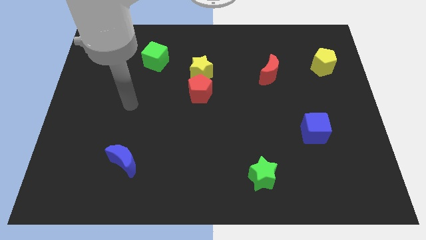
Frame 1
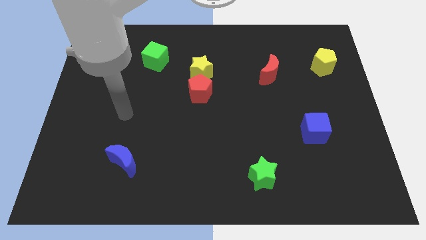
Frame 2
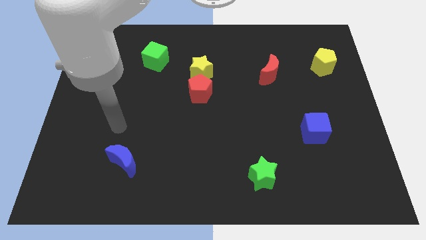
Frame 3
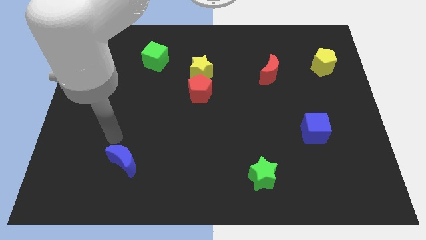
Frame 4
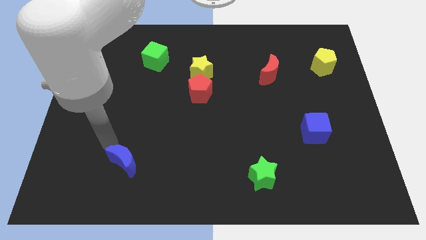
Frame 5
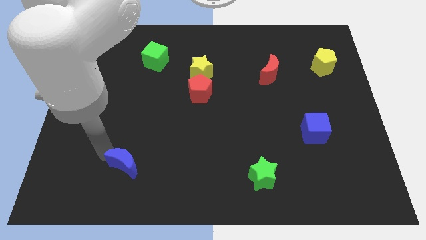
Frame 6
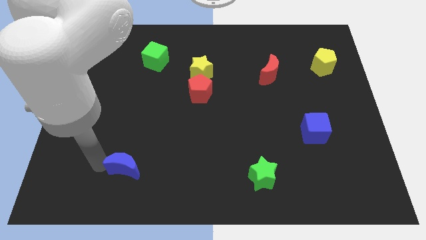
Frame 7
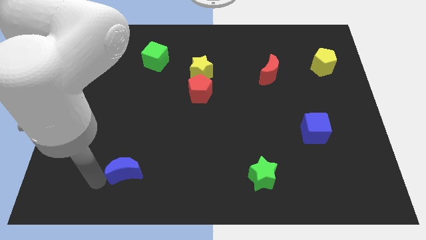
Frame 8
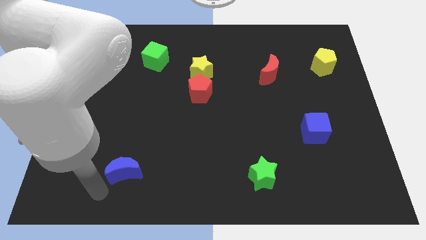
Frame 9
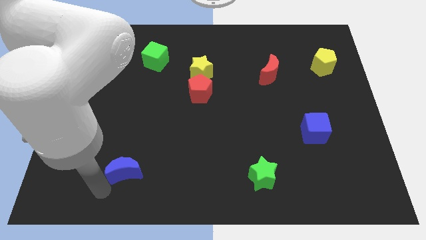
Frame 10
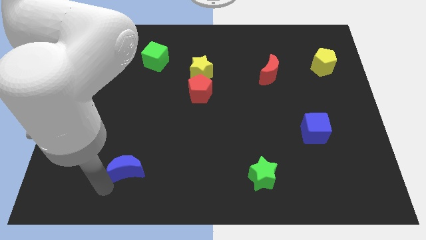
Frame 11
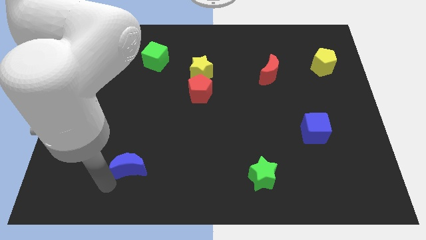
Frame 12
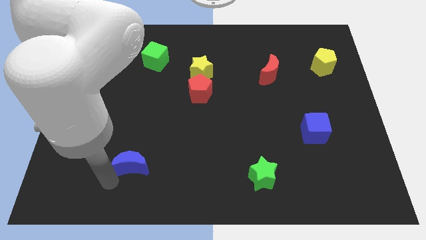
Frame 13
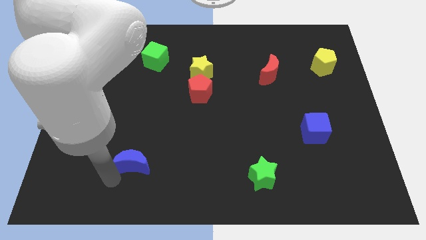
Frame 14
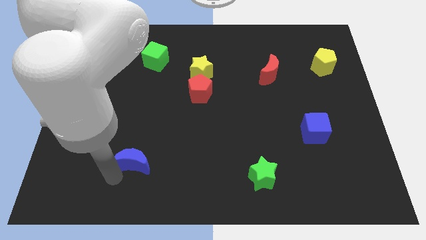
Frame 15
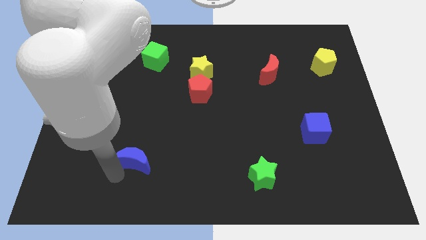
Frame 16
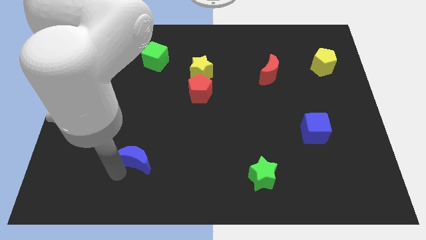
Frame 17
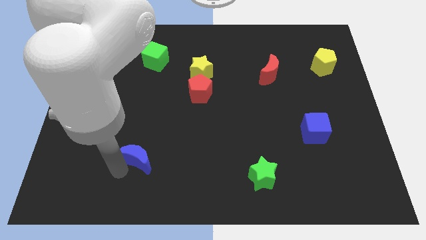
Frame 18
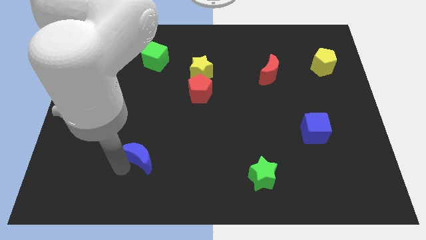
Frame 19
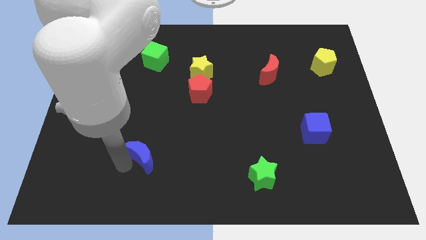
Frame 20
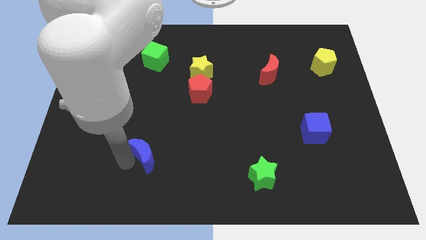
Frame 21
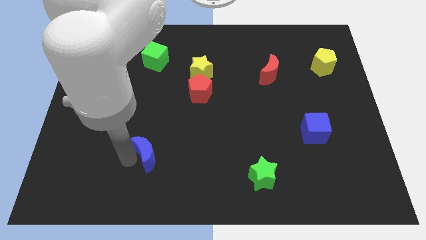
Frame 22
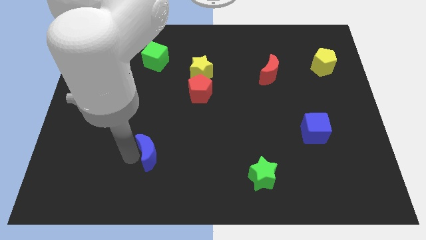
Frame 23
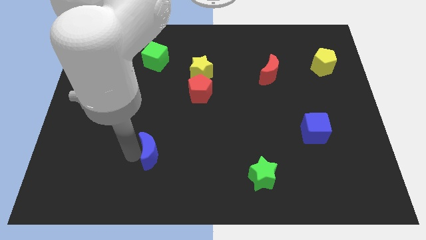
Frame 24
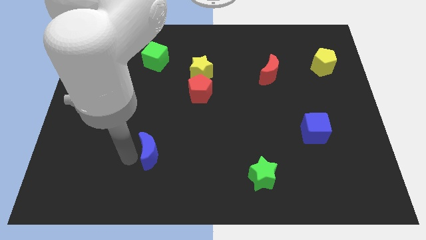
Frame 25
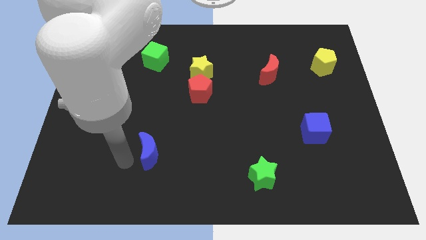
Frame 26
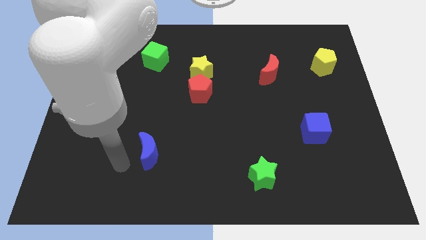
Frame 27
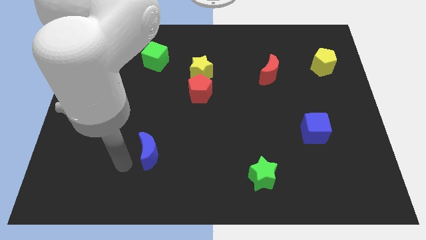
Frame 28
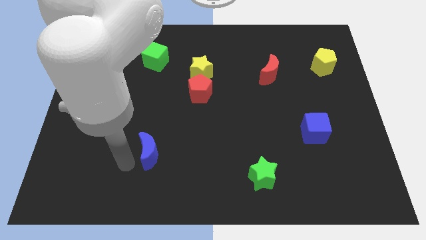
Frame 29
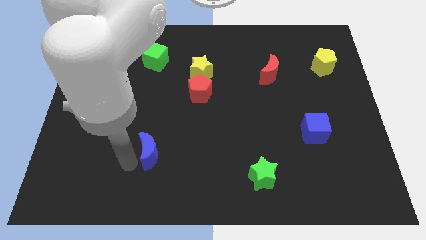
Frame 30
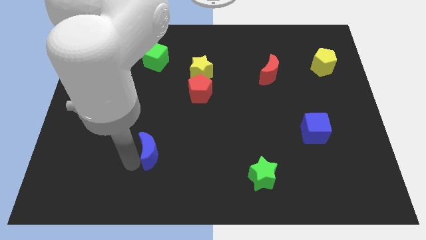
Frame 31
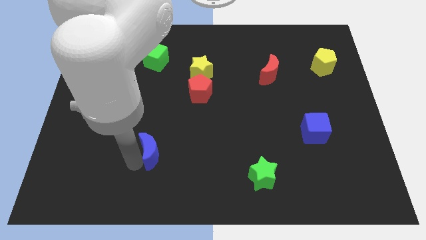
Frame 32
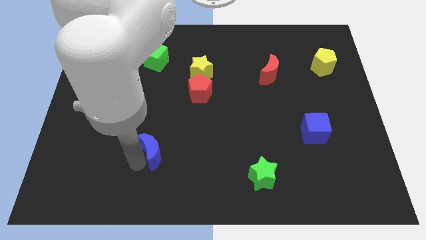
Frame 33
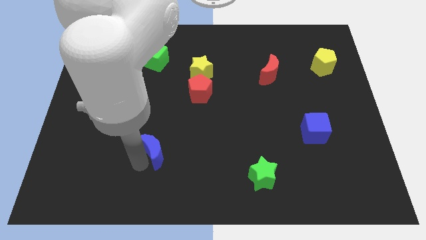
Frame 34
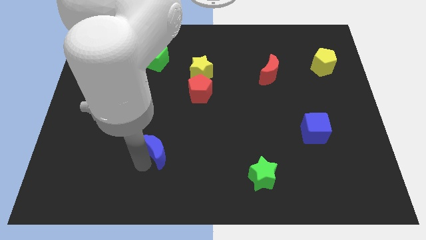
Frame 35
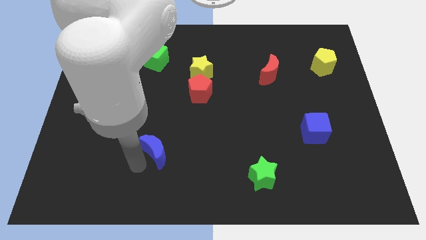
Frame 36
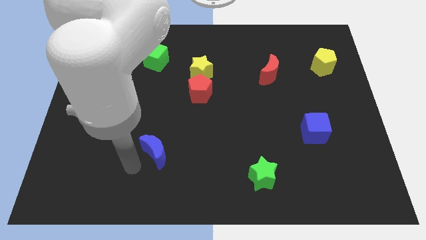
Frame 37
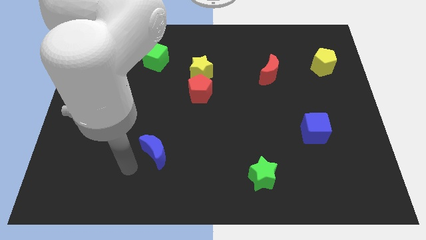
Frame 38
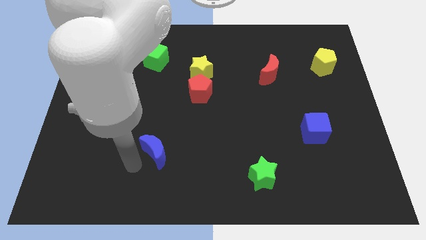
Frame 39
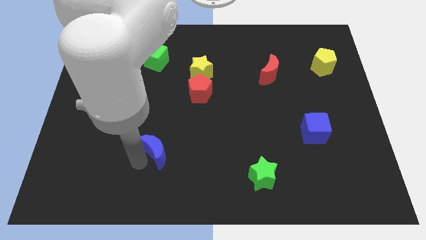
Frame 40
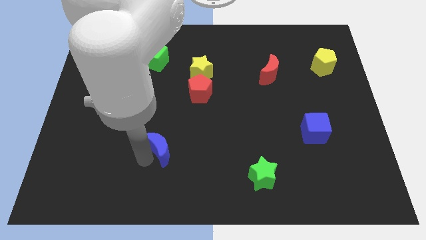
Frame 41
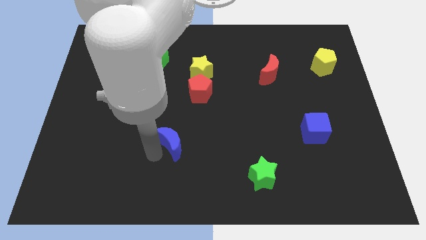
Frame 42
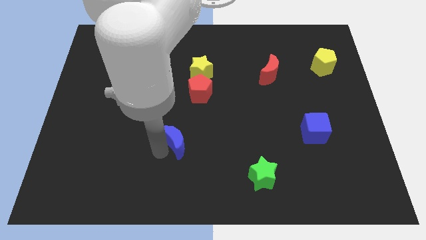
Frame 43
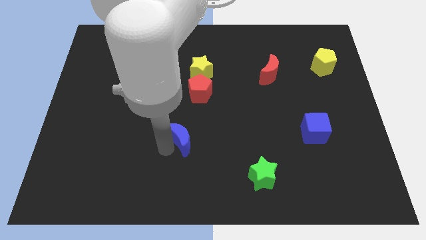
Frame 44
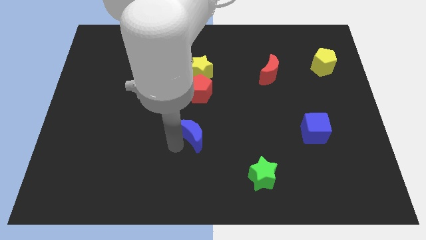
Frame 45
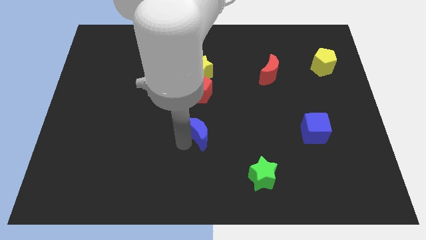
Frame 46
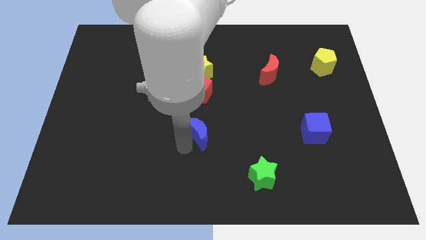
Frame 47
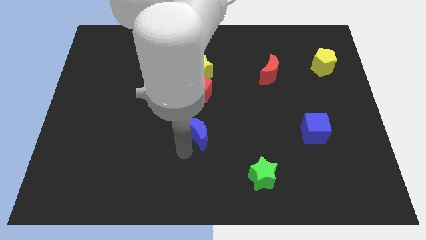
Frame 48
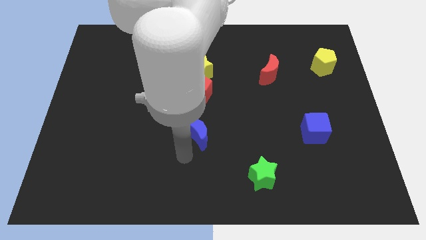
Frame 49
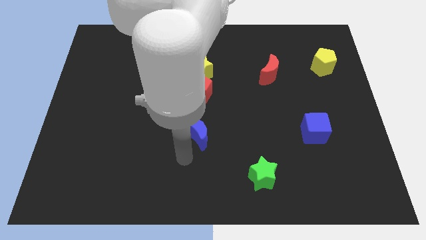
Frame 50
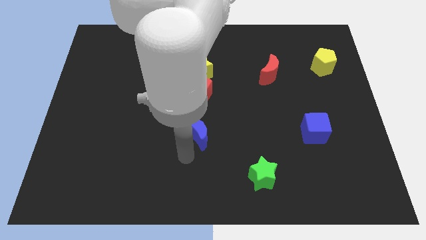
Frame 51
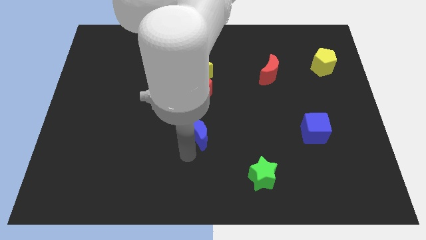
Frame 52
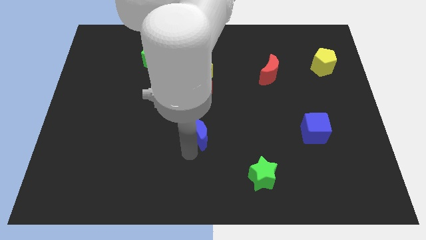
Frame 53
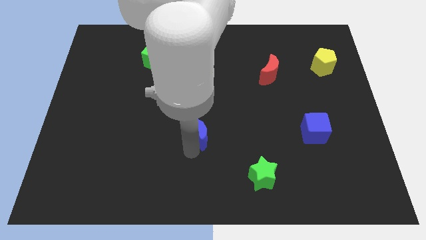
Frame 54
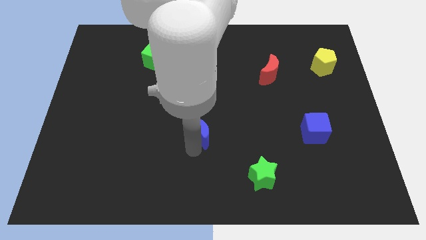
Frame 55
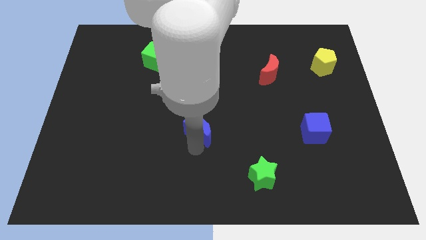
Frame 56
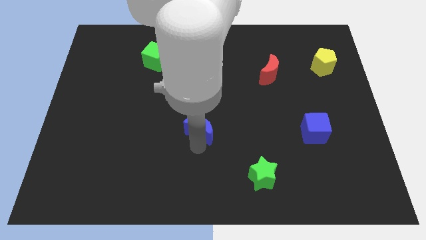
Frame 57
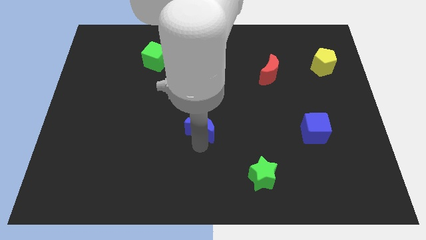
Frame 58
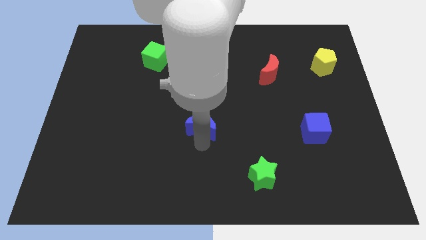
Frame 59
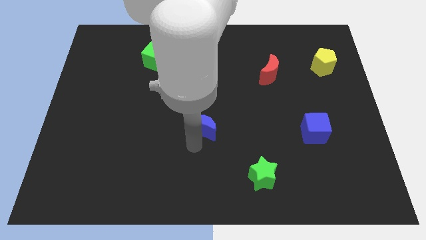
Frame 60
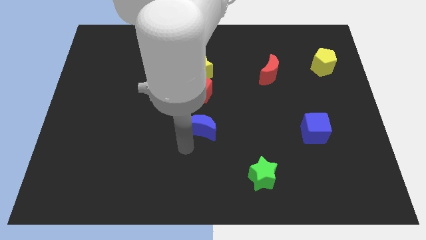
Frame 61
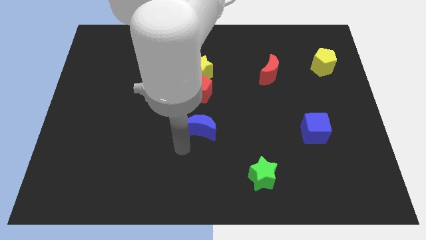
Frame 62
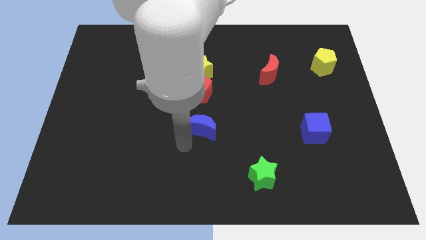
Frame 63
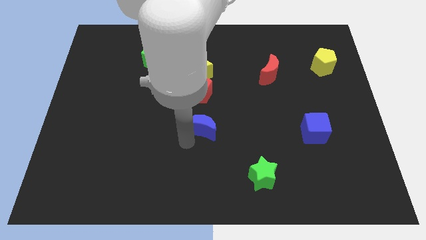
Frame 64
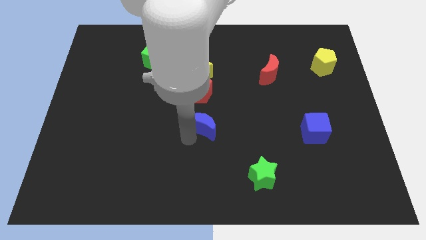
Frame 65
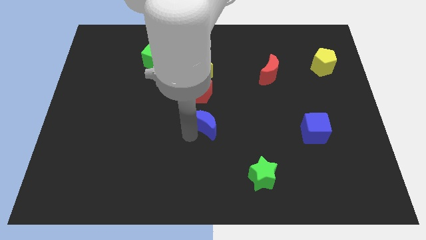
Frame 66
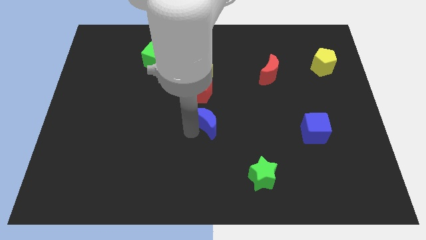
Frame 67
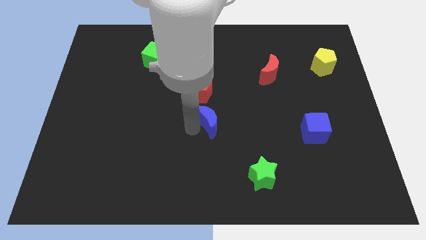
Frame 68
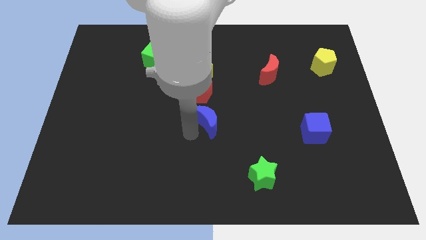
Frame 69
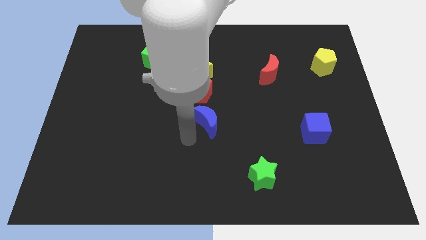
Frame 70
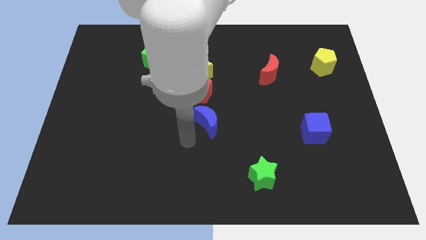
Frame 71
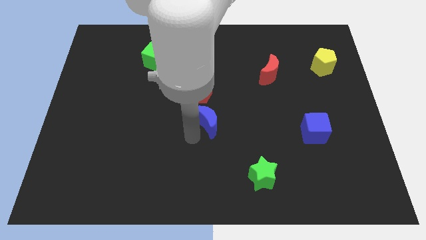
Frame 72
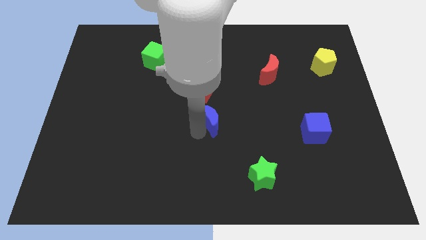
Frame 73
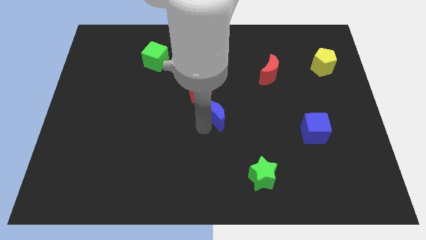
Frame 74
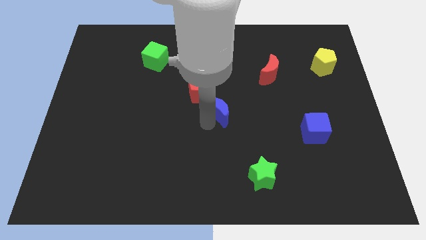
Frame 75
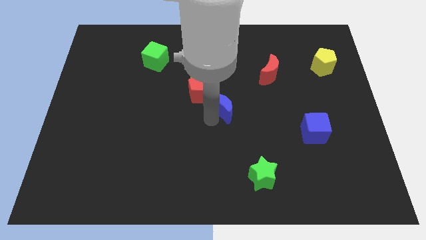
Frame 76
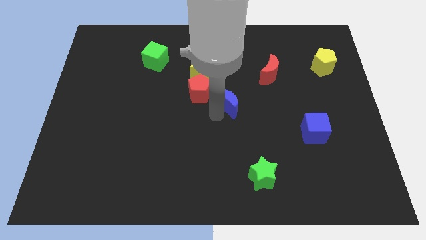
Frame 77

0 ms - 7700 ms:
put the blue moon just right of the red pentagon
